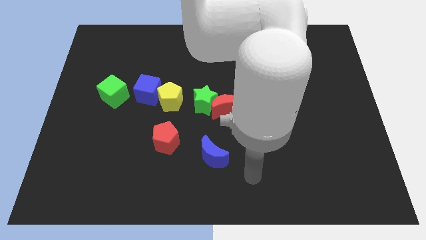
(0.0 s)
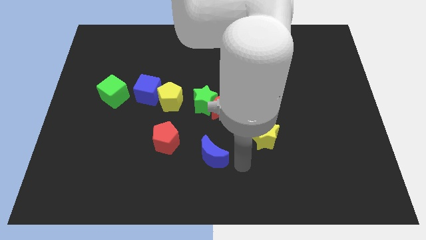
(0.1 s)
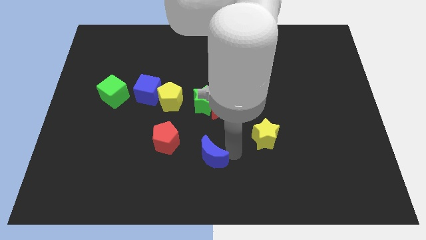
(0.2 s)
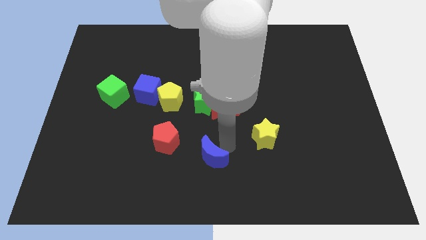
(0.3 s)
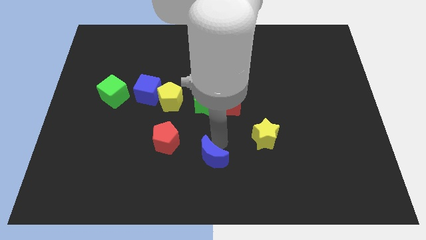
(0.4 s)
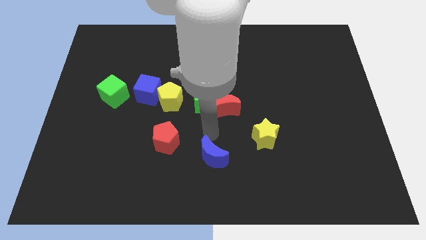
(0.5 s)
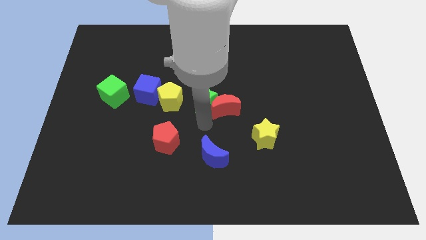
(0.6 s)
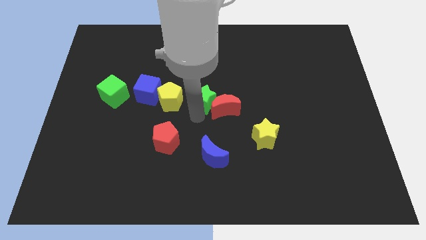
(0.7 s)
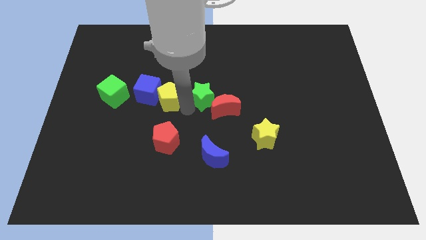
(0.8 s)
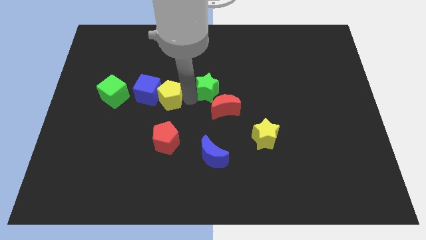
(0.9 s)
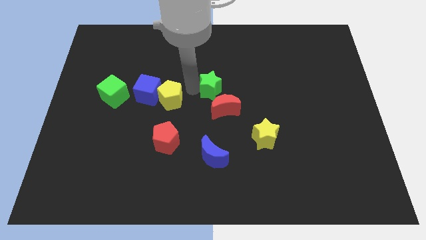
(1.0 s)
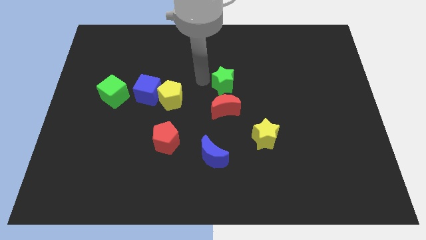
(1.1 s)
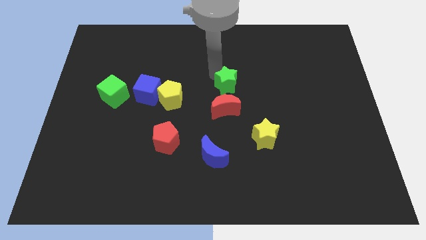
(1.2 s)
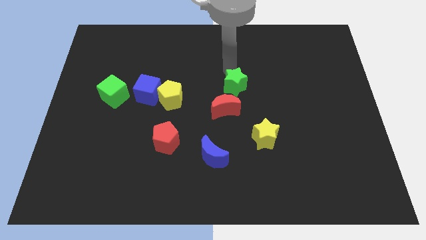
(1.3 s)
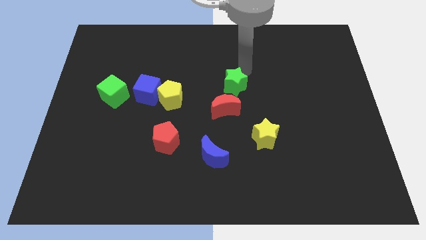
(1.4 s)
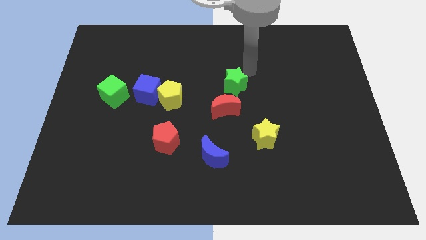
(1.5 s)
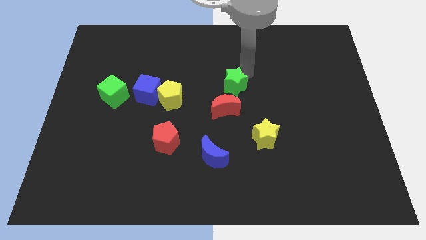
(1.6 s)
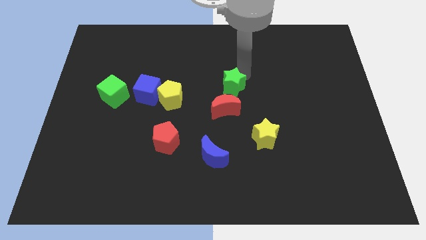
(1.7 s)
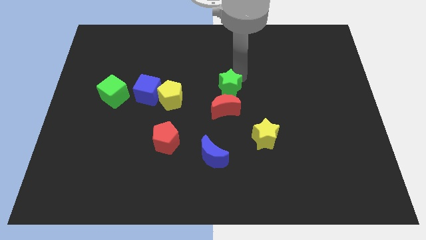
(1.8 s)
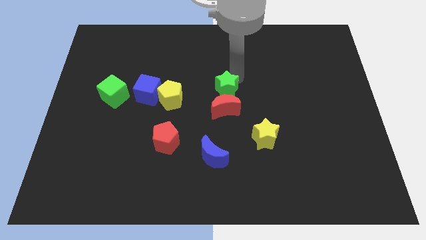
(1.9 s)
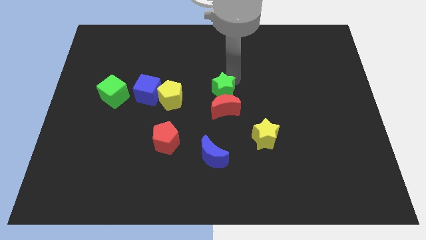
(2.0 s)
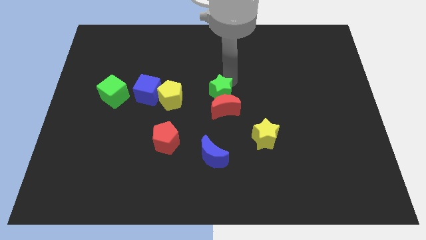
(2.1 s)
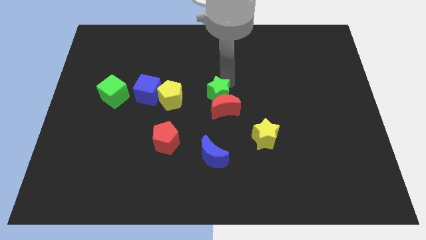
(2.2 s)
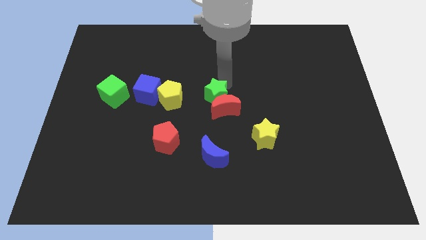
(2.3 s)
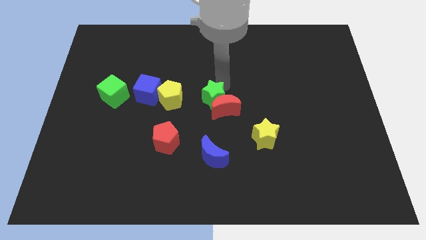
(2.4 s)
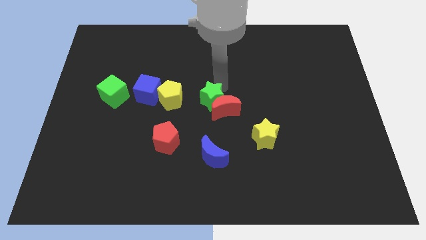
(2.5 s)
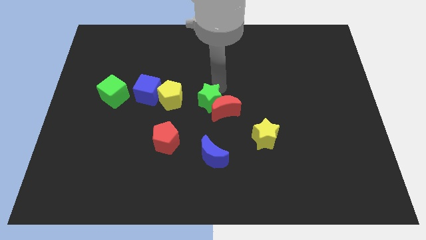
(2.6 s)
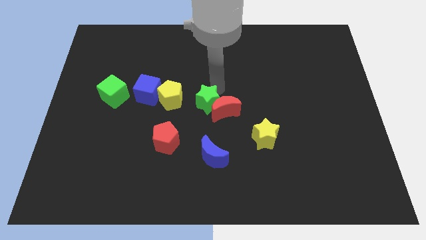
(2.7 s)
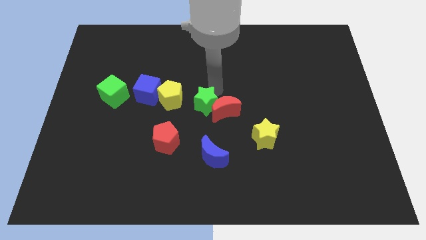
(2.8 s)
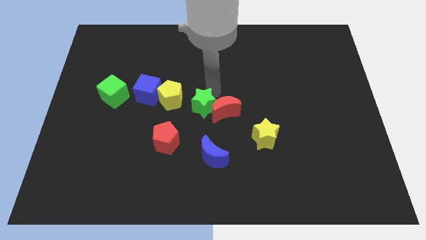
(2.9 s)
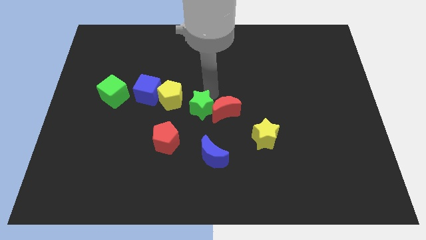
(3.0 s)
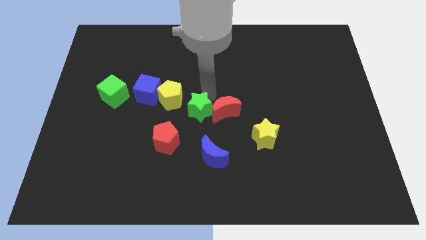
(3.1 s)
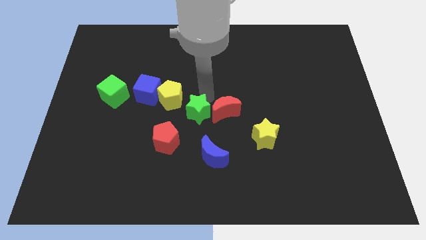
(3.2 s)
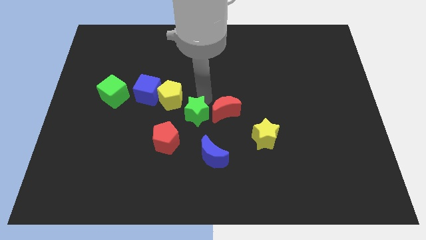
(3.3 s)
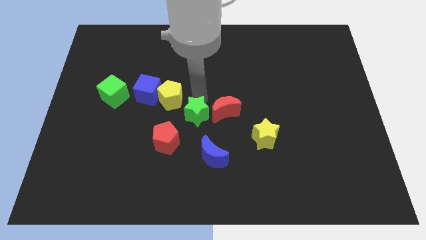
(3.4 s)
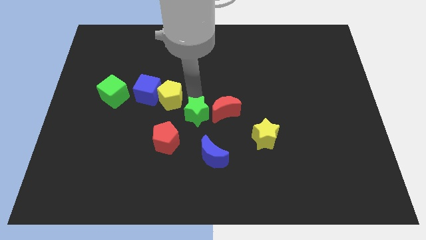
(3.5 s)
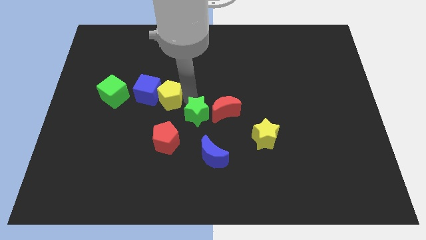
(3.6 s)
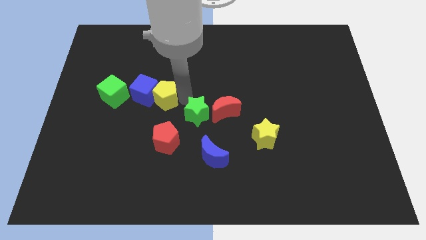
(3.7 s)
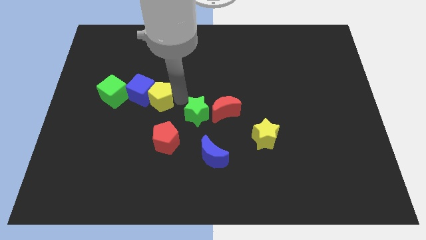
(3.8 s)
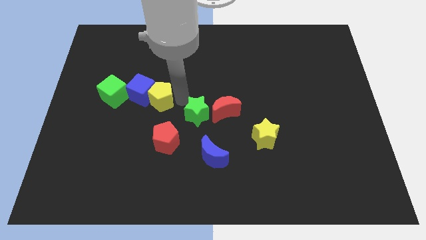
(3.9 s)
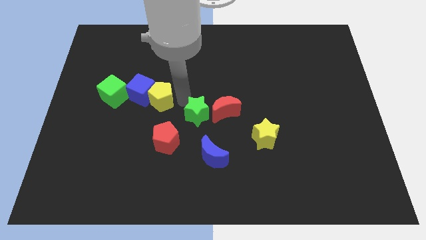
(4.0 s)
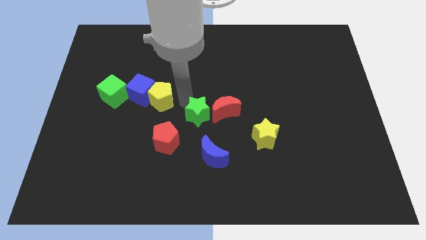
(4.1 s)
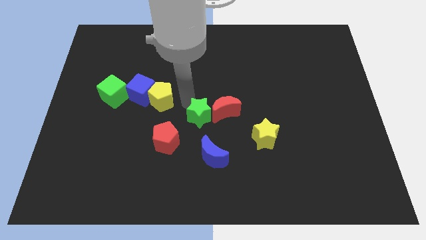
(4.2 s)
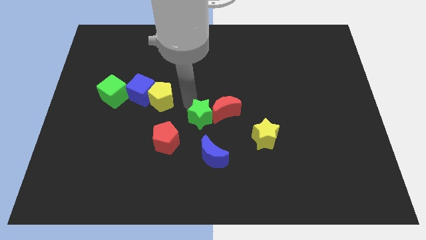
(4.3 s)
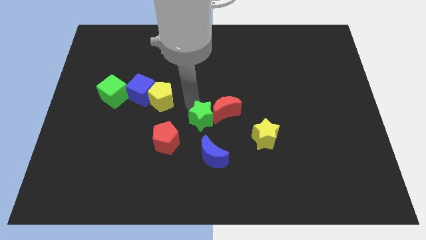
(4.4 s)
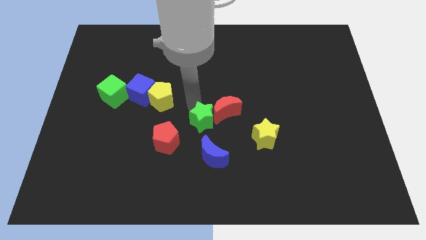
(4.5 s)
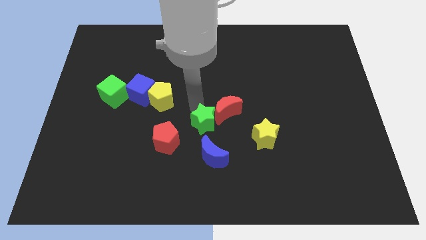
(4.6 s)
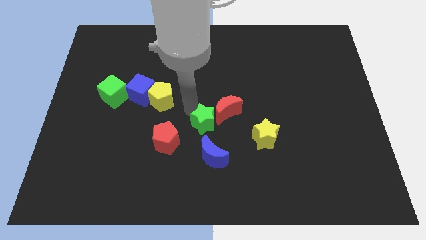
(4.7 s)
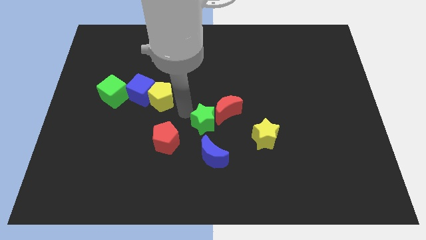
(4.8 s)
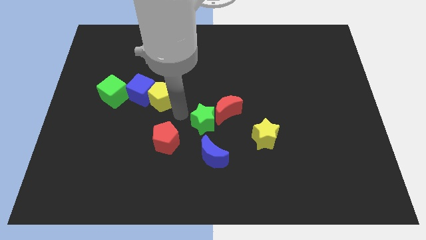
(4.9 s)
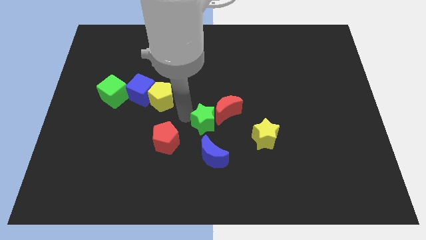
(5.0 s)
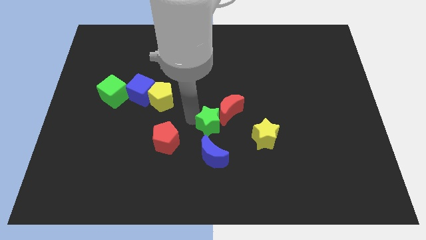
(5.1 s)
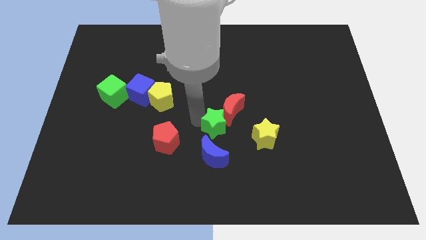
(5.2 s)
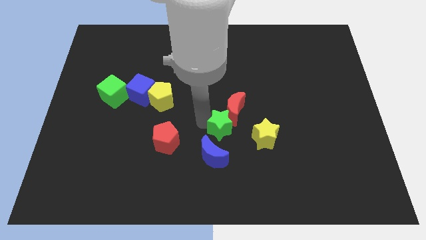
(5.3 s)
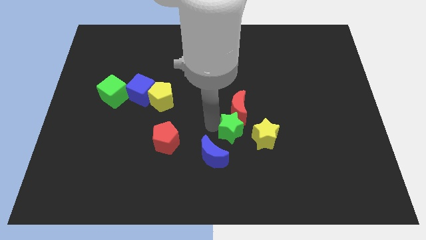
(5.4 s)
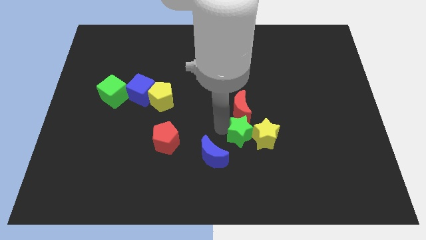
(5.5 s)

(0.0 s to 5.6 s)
slide the green star towards the yellow star

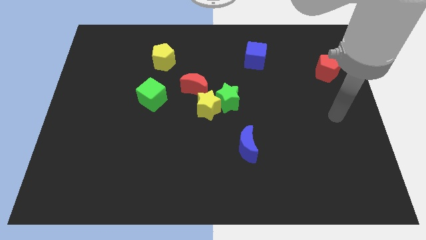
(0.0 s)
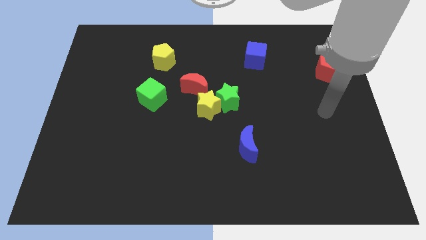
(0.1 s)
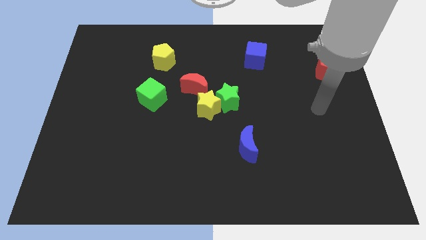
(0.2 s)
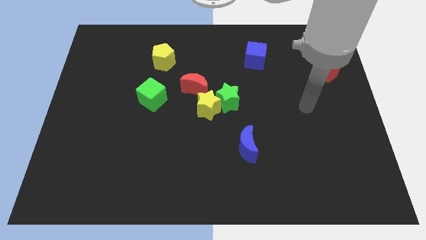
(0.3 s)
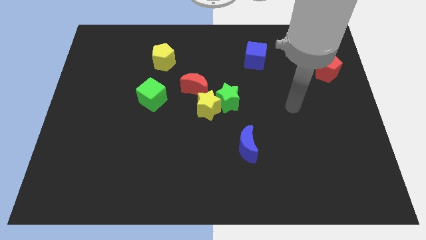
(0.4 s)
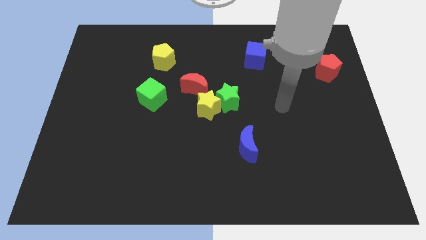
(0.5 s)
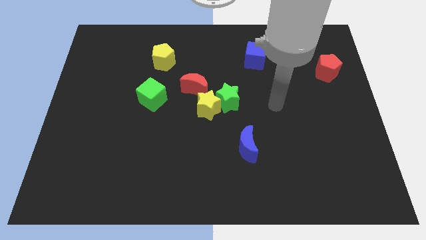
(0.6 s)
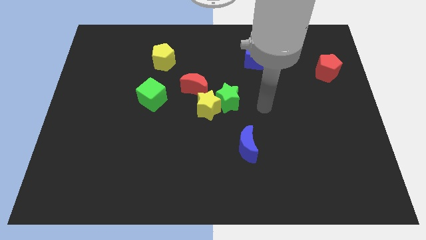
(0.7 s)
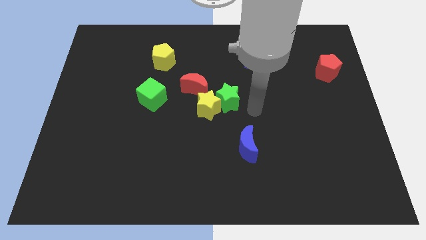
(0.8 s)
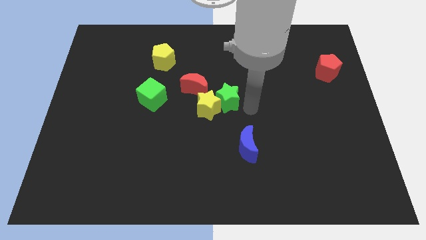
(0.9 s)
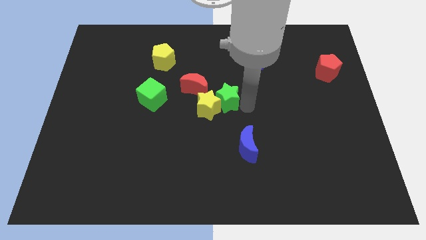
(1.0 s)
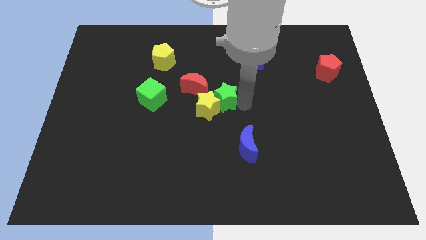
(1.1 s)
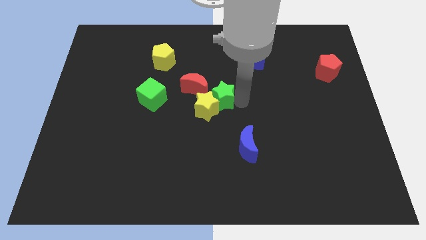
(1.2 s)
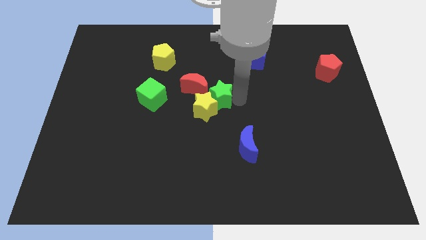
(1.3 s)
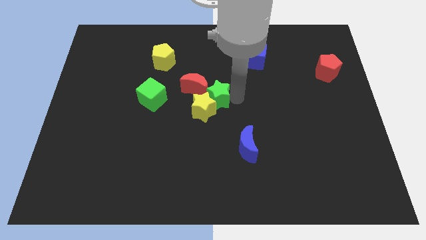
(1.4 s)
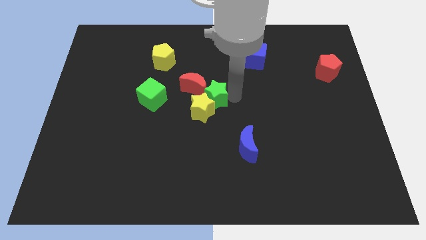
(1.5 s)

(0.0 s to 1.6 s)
push the green star to the red moon
